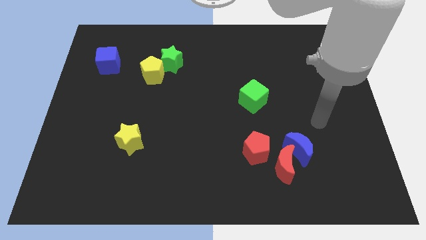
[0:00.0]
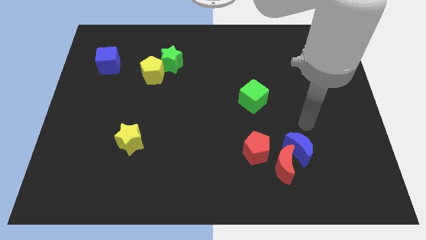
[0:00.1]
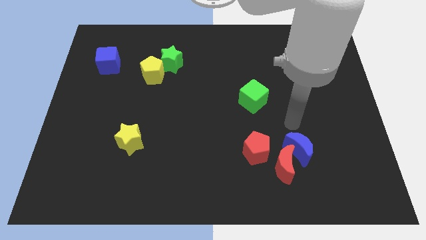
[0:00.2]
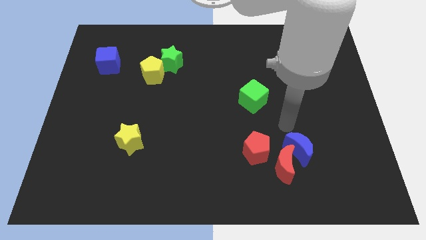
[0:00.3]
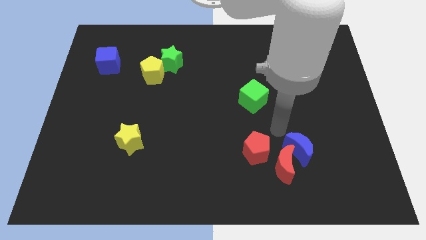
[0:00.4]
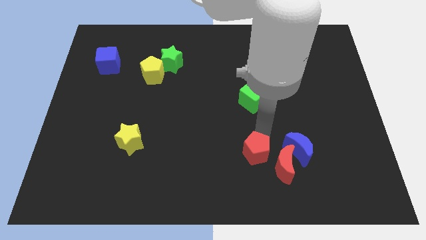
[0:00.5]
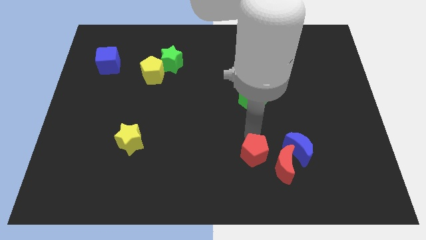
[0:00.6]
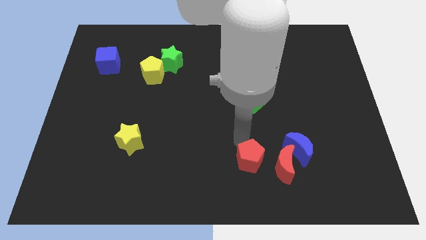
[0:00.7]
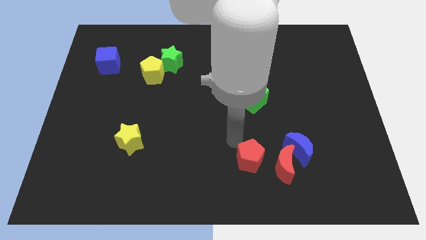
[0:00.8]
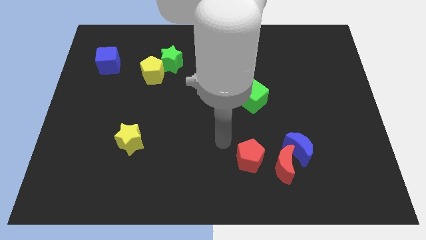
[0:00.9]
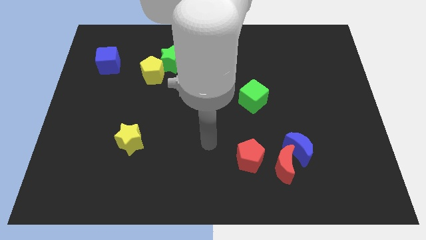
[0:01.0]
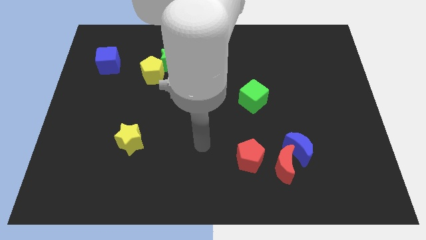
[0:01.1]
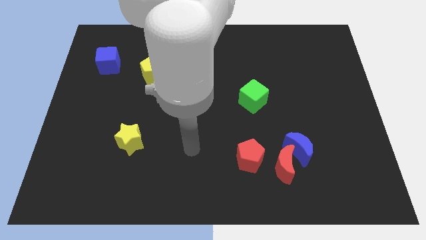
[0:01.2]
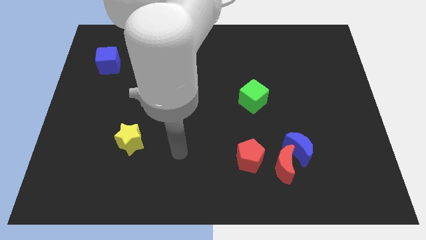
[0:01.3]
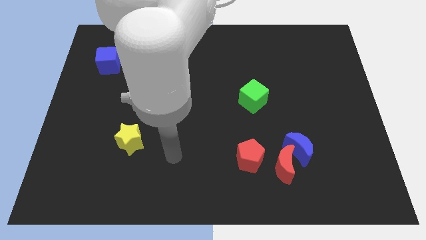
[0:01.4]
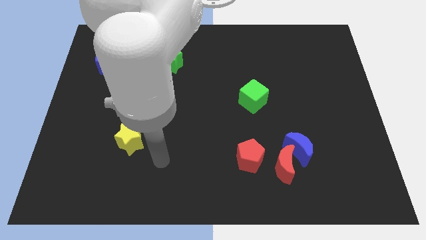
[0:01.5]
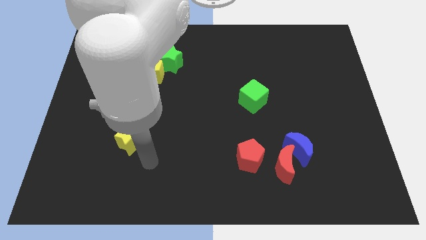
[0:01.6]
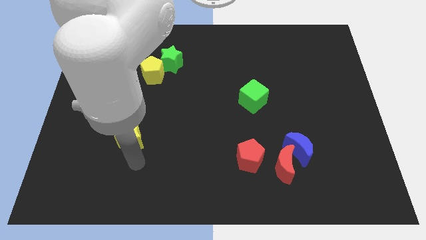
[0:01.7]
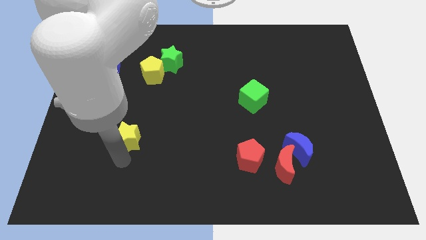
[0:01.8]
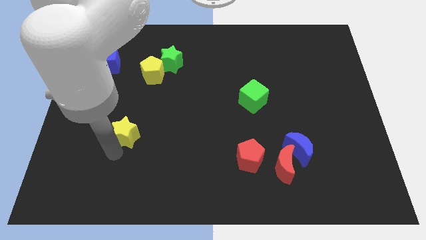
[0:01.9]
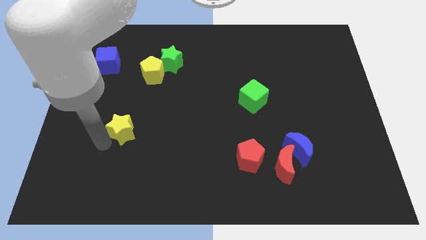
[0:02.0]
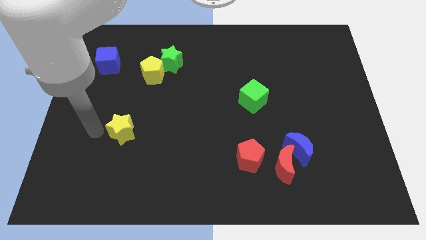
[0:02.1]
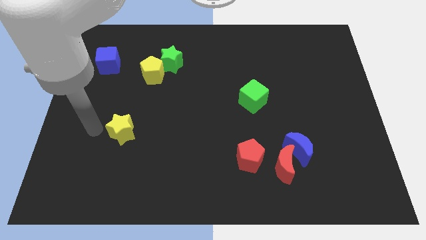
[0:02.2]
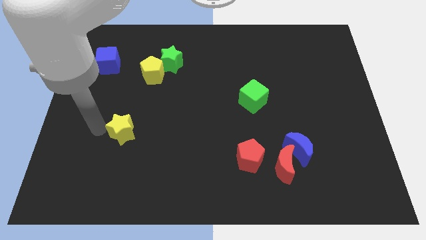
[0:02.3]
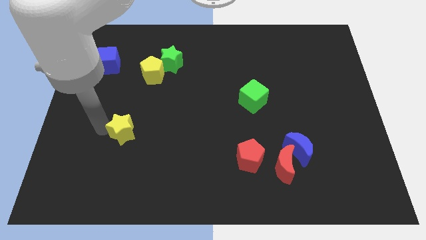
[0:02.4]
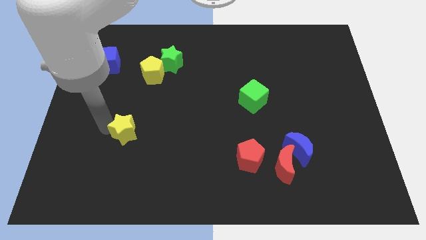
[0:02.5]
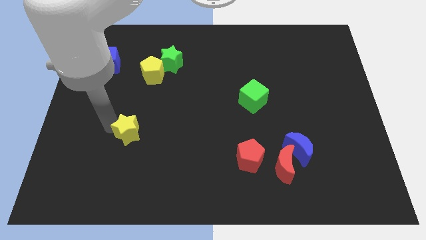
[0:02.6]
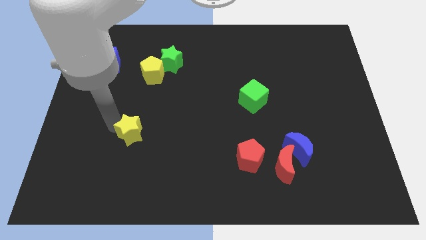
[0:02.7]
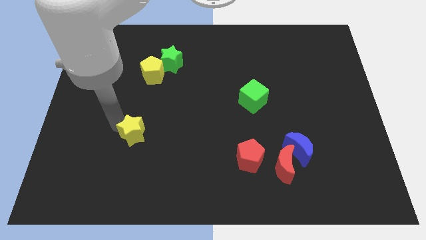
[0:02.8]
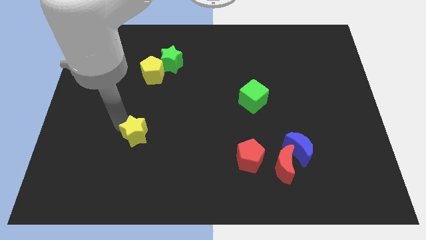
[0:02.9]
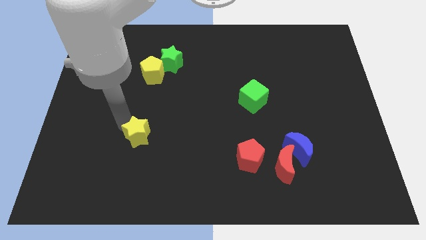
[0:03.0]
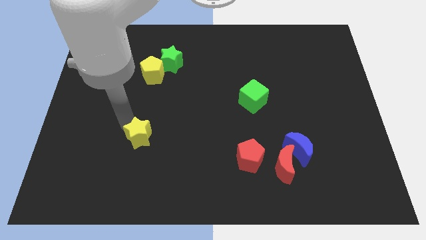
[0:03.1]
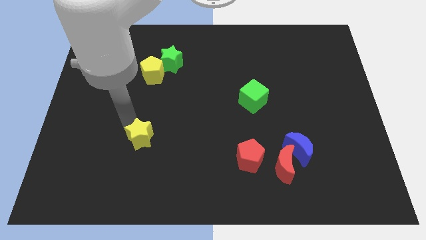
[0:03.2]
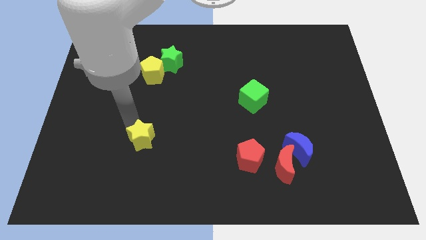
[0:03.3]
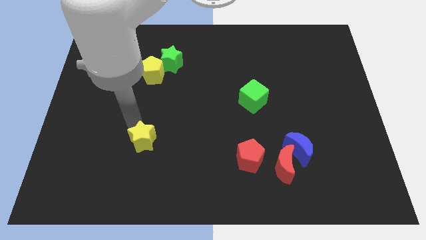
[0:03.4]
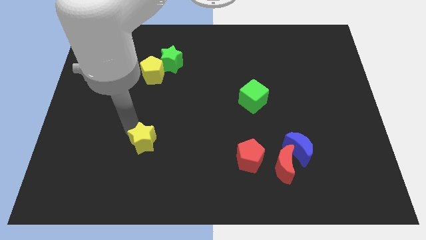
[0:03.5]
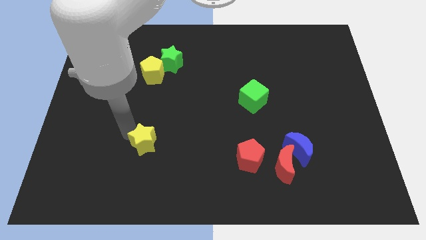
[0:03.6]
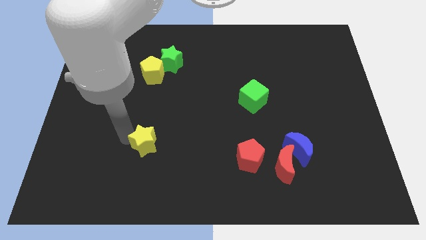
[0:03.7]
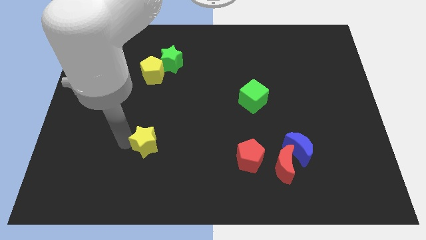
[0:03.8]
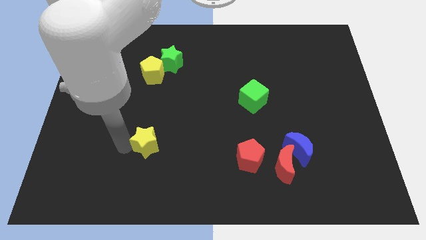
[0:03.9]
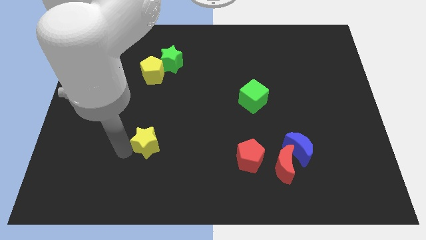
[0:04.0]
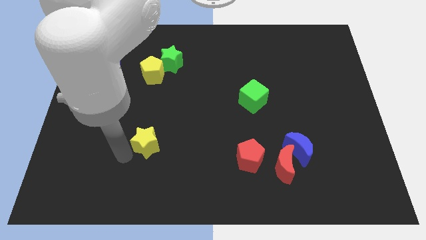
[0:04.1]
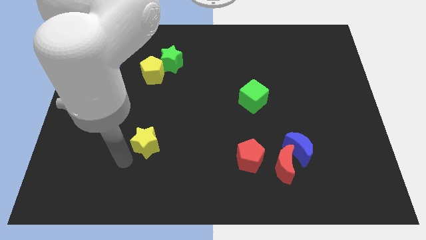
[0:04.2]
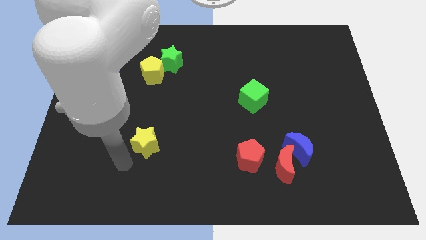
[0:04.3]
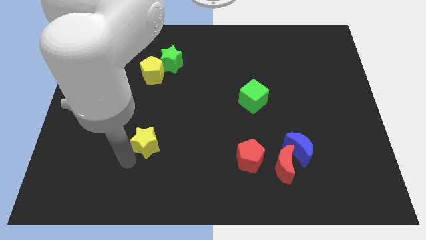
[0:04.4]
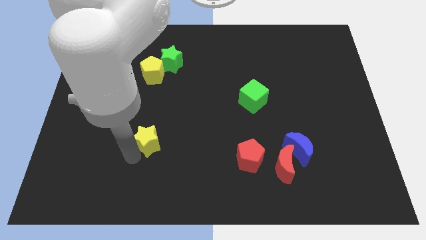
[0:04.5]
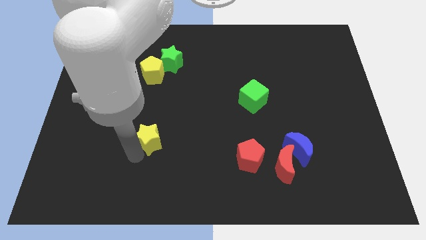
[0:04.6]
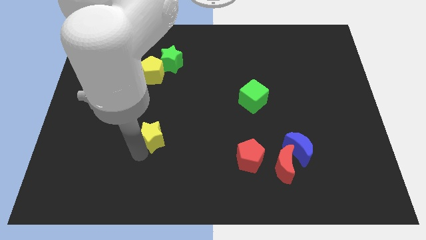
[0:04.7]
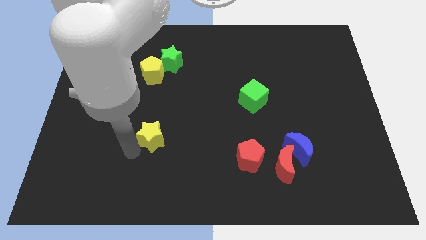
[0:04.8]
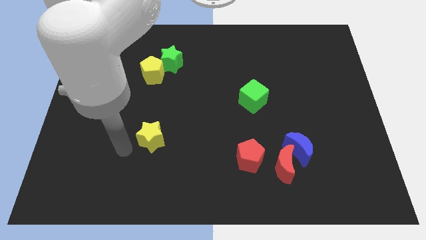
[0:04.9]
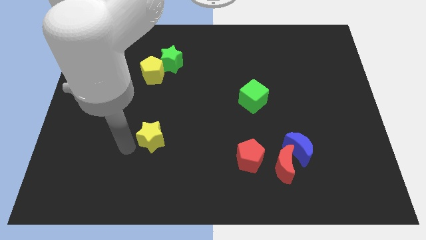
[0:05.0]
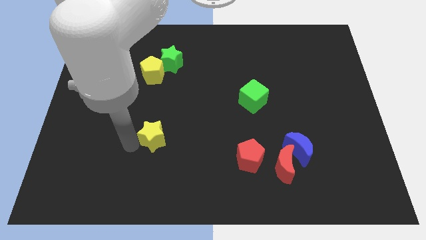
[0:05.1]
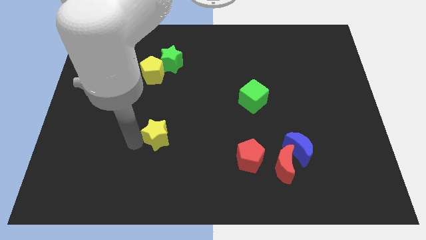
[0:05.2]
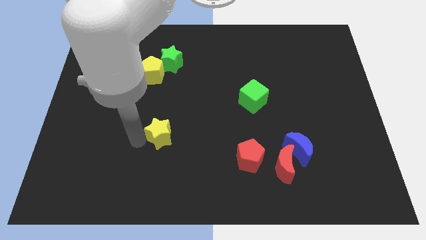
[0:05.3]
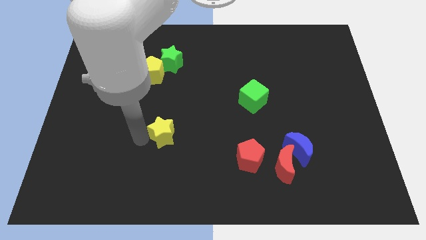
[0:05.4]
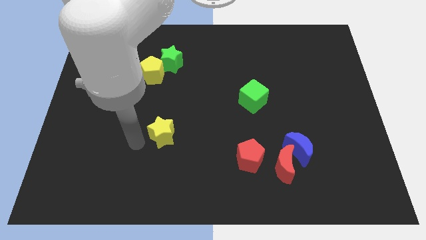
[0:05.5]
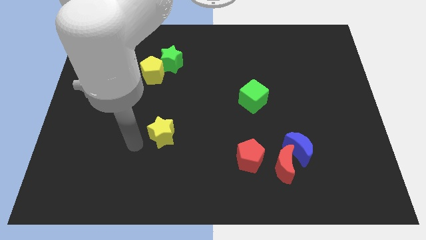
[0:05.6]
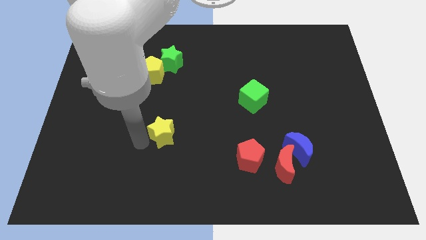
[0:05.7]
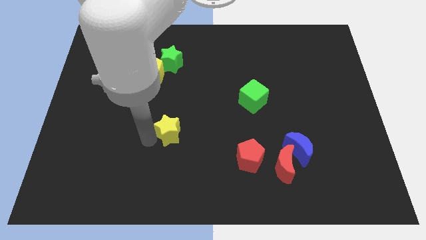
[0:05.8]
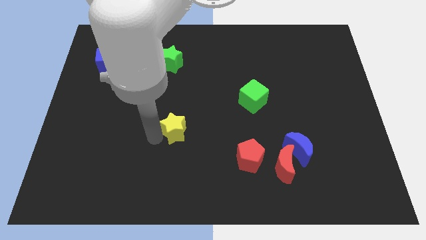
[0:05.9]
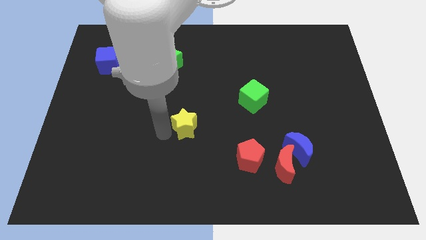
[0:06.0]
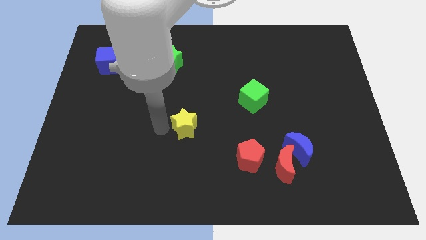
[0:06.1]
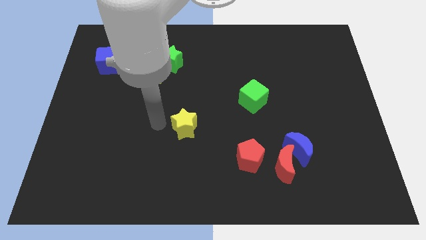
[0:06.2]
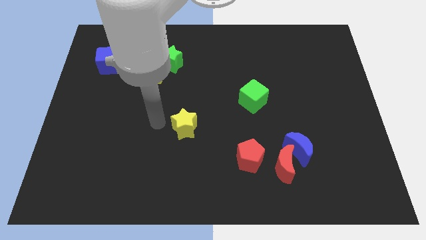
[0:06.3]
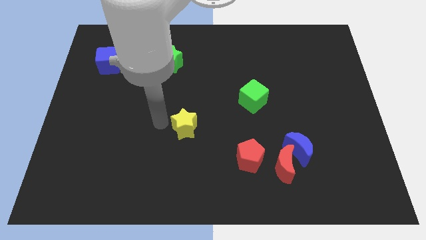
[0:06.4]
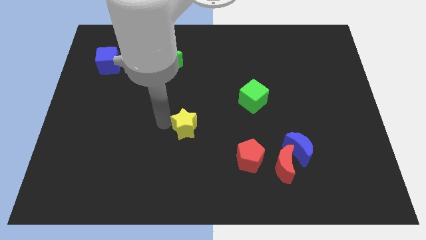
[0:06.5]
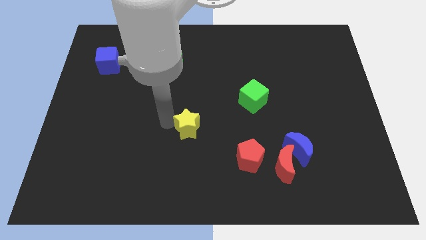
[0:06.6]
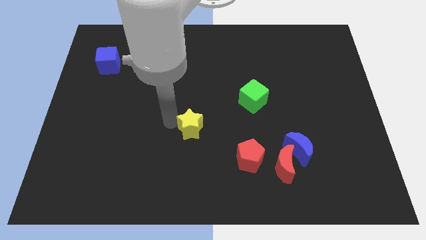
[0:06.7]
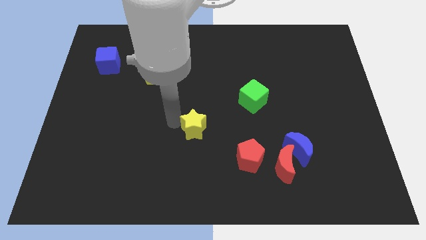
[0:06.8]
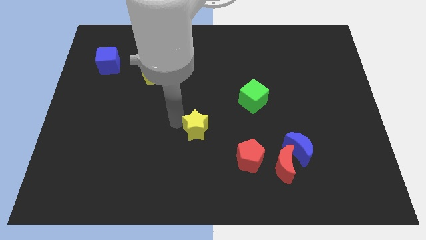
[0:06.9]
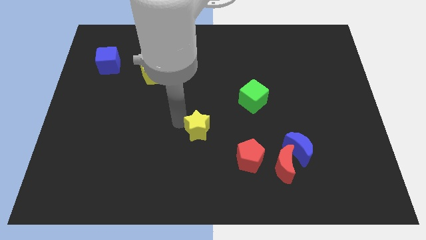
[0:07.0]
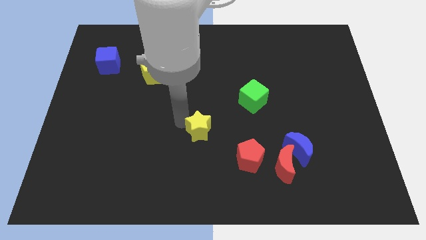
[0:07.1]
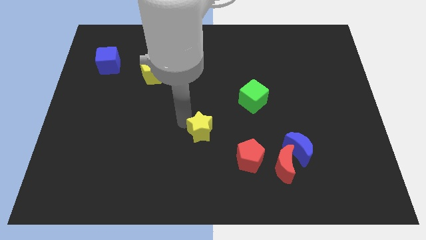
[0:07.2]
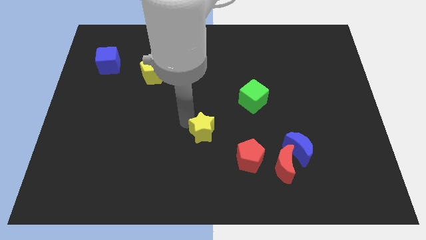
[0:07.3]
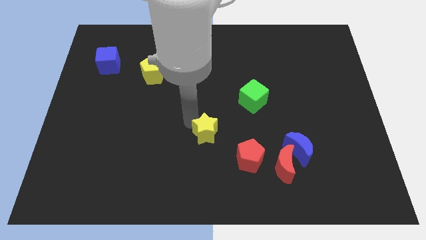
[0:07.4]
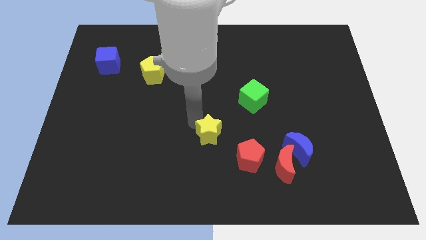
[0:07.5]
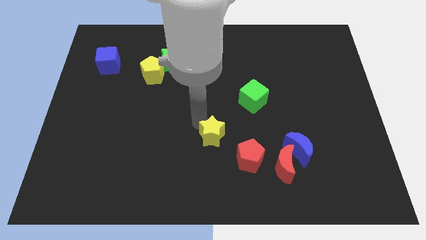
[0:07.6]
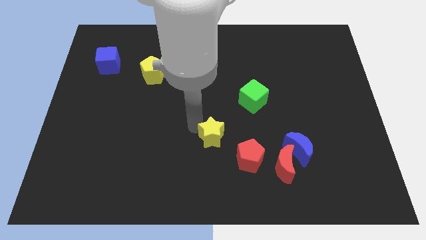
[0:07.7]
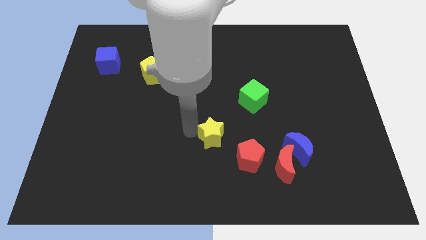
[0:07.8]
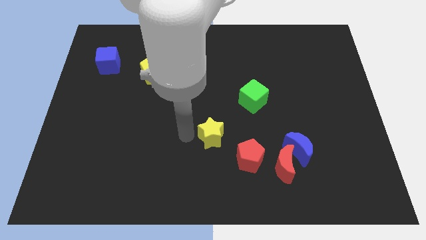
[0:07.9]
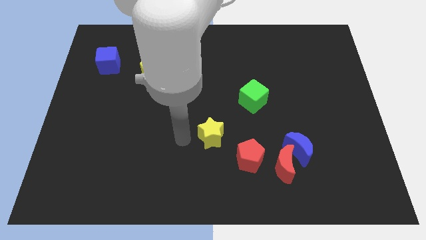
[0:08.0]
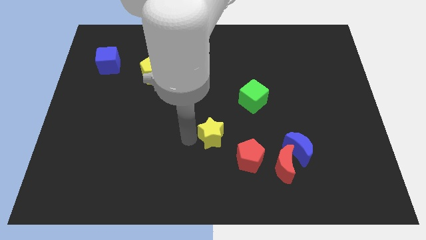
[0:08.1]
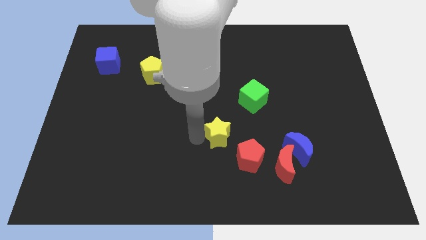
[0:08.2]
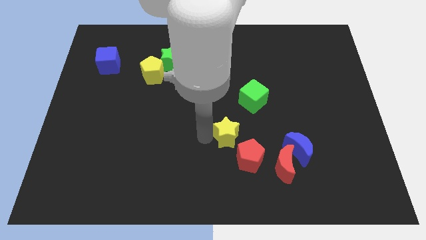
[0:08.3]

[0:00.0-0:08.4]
move the yellow star right
